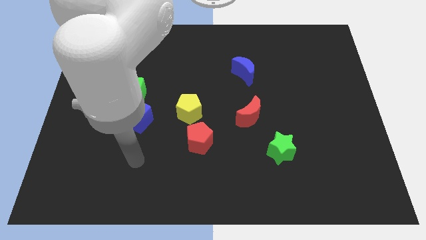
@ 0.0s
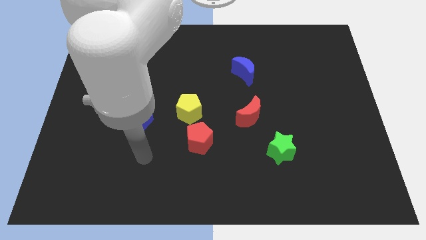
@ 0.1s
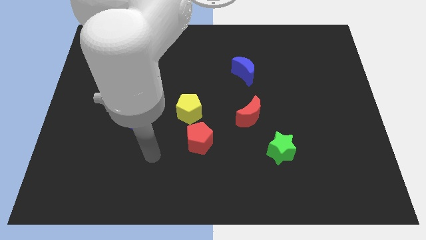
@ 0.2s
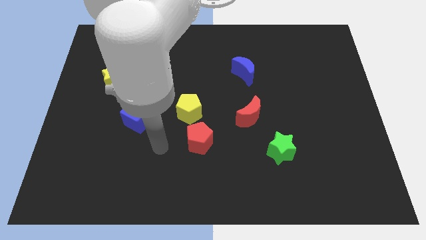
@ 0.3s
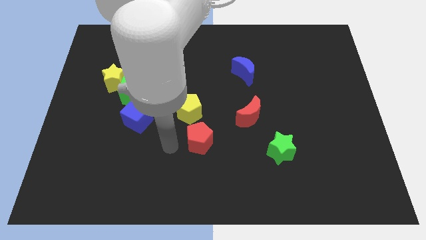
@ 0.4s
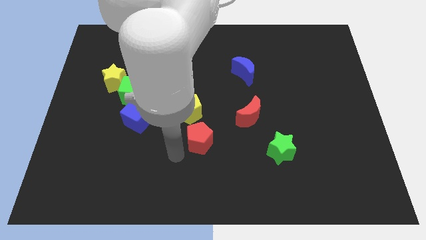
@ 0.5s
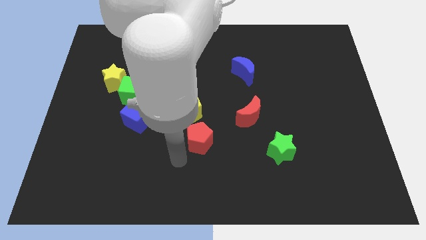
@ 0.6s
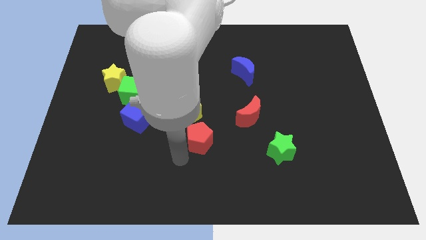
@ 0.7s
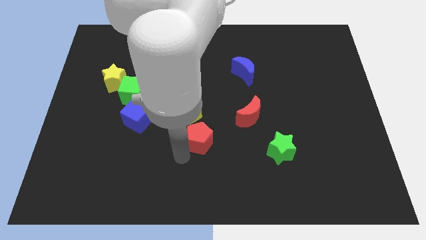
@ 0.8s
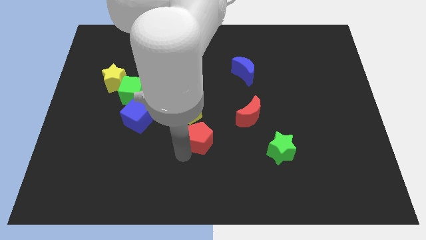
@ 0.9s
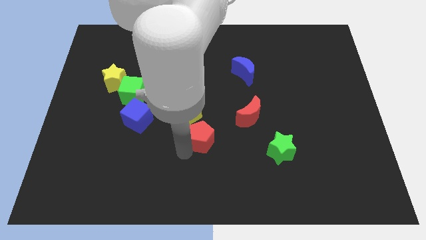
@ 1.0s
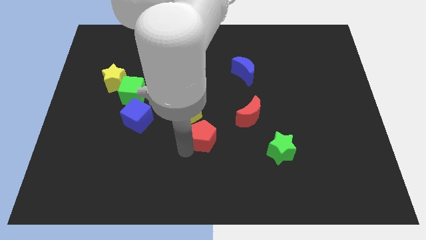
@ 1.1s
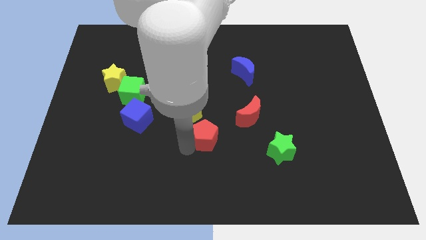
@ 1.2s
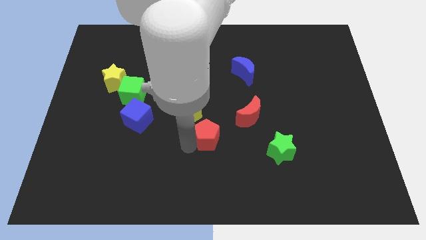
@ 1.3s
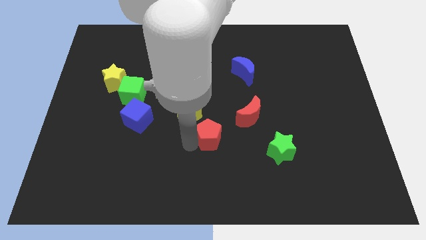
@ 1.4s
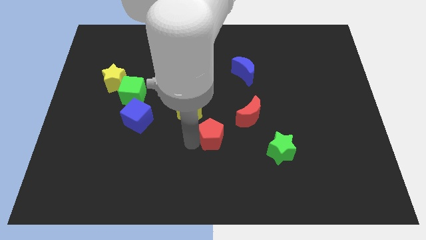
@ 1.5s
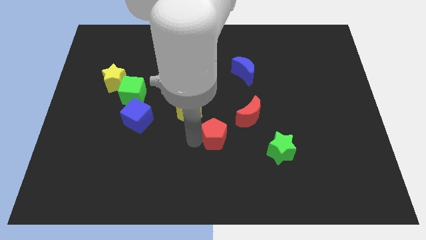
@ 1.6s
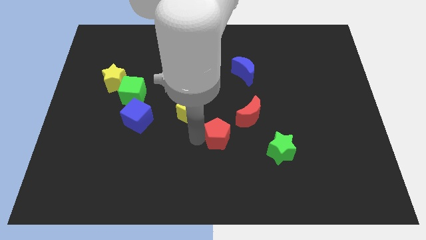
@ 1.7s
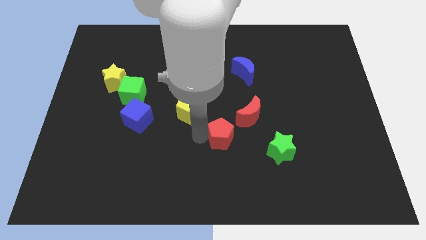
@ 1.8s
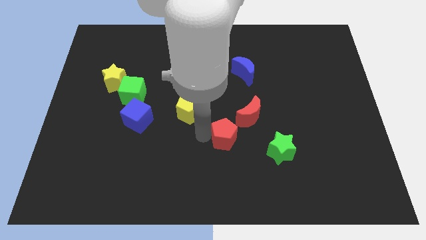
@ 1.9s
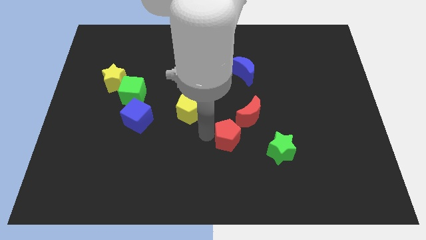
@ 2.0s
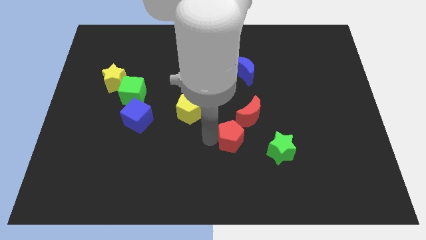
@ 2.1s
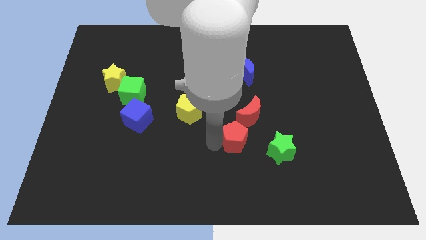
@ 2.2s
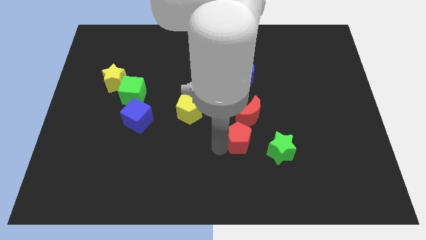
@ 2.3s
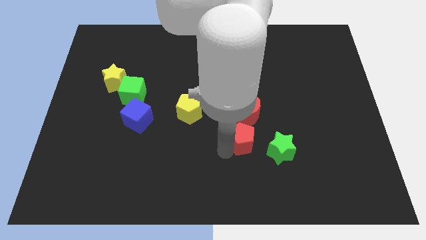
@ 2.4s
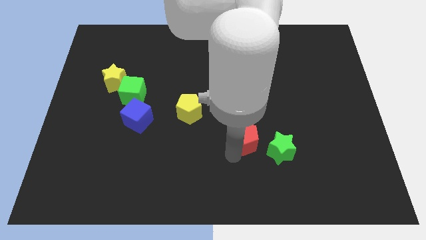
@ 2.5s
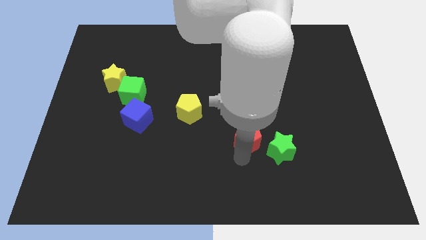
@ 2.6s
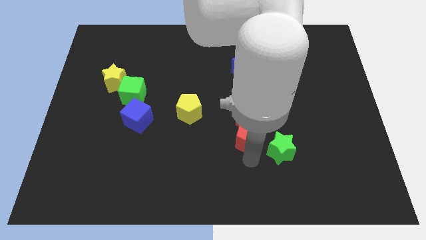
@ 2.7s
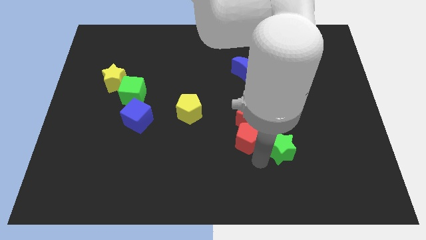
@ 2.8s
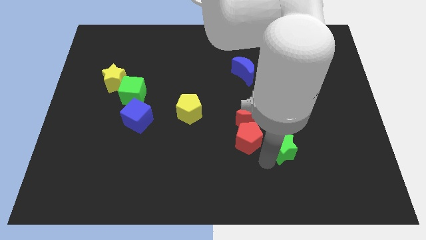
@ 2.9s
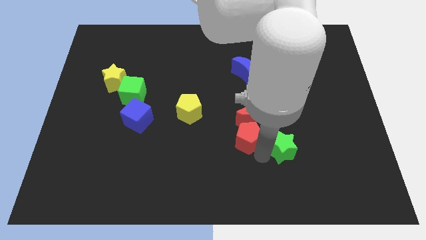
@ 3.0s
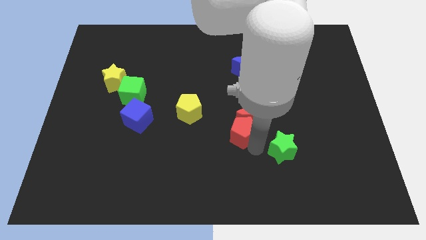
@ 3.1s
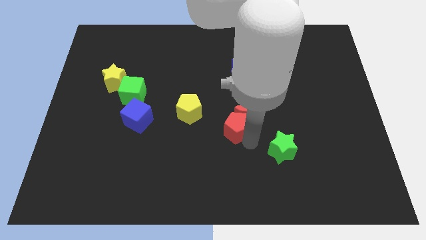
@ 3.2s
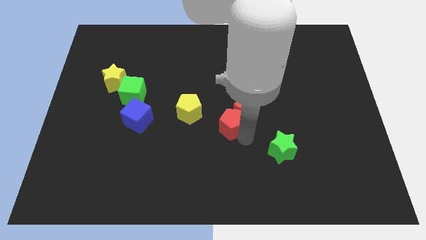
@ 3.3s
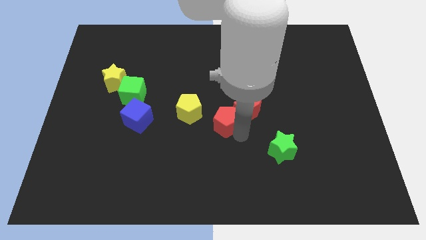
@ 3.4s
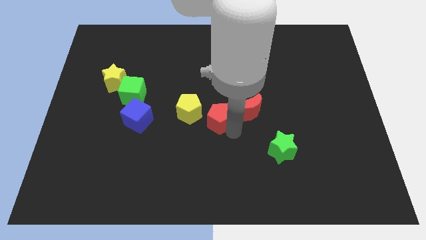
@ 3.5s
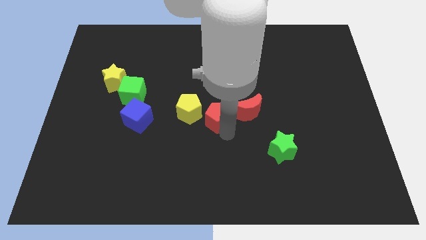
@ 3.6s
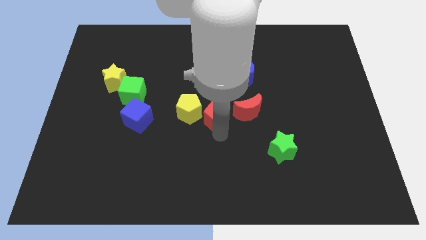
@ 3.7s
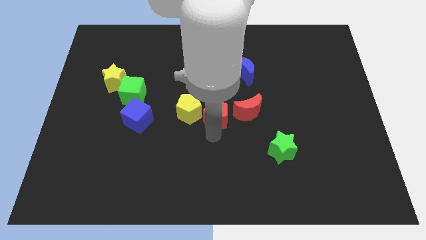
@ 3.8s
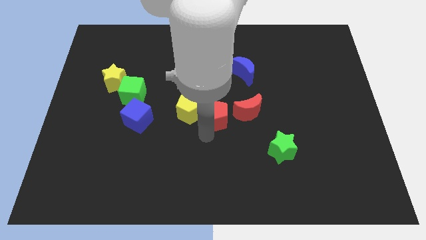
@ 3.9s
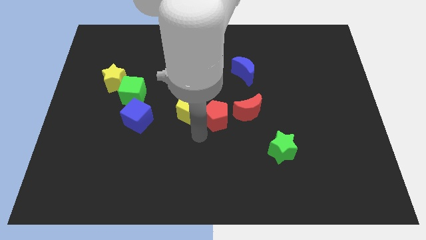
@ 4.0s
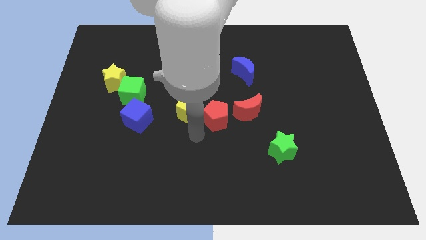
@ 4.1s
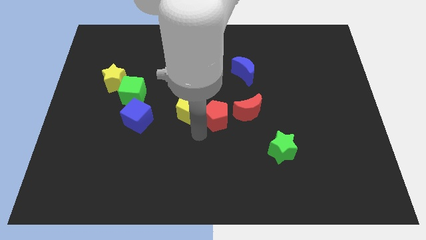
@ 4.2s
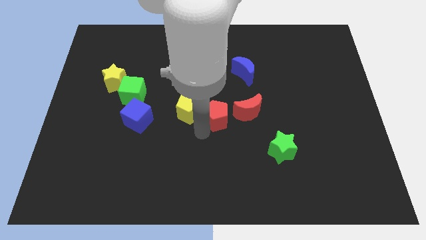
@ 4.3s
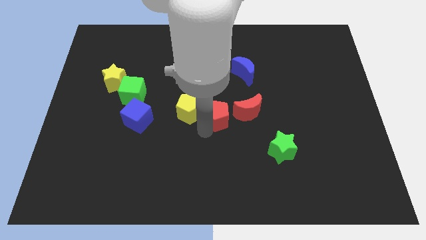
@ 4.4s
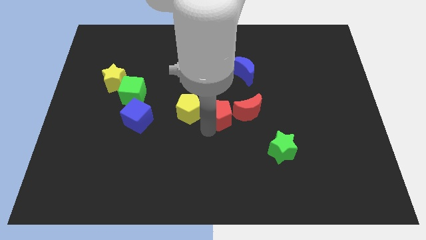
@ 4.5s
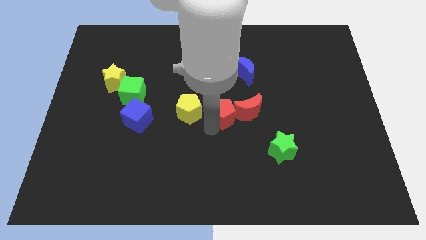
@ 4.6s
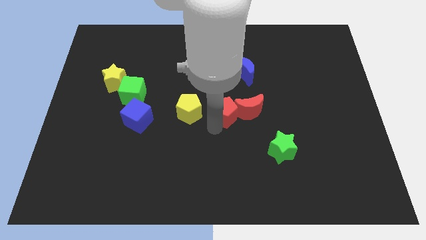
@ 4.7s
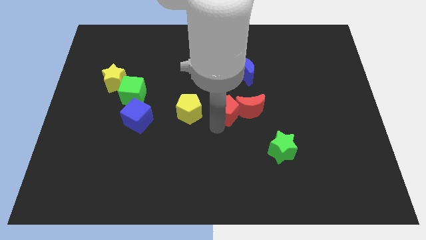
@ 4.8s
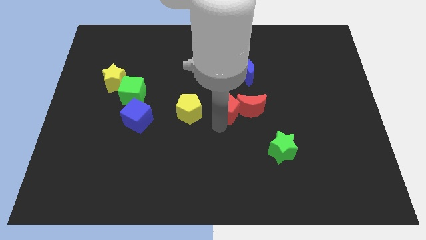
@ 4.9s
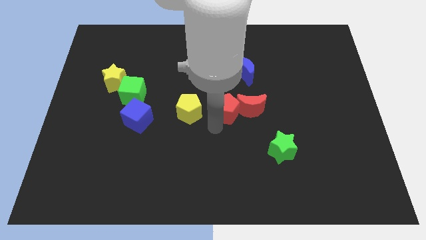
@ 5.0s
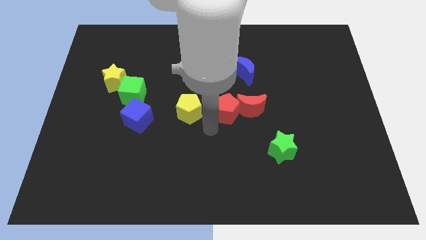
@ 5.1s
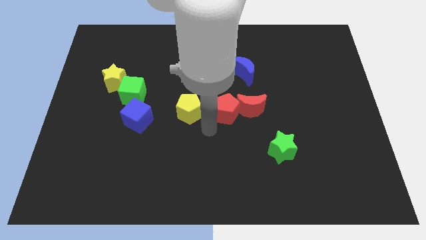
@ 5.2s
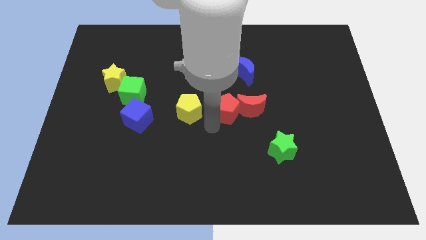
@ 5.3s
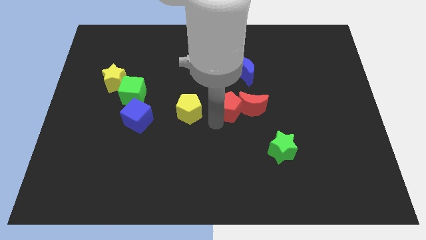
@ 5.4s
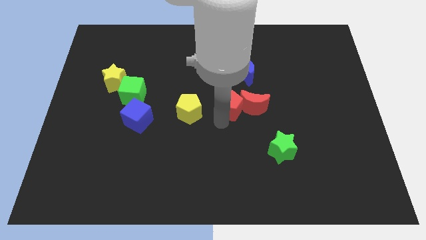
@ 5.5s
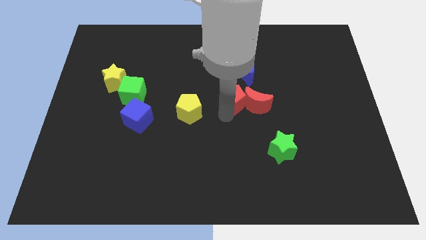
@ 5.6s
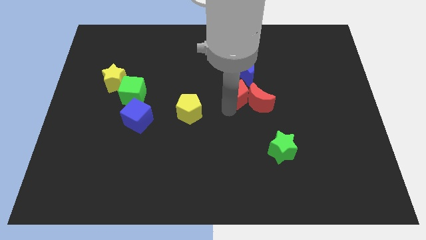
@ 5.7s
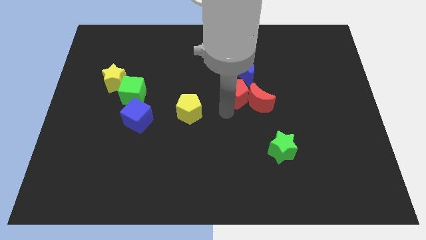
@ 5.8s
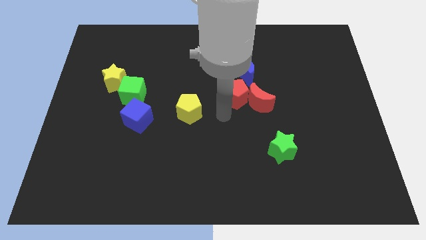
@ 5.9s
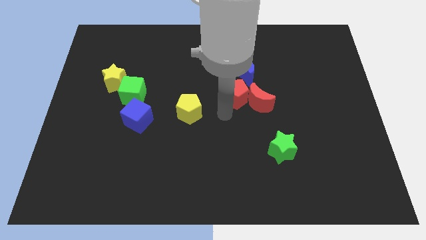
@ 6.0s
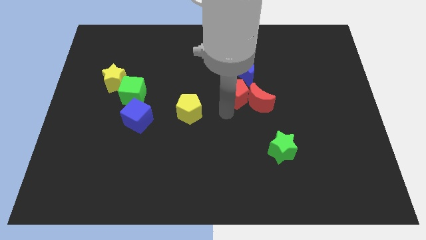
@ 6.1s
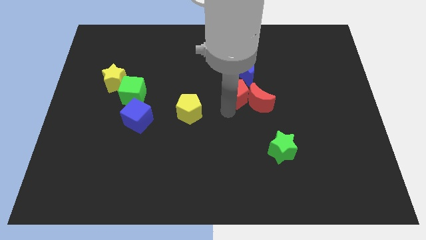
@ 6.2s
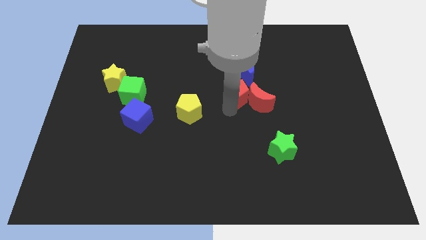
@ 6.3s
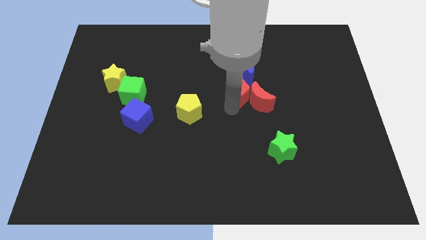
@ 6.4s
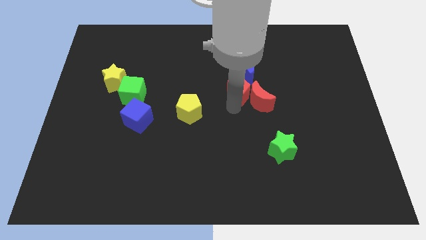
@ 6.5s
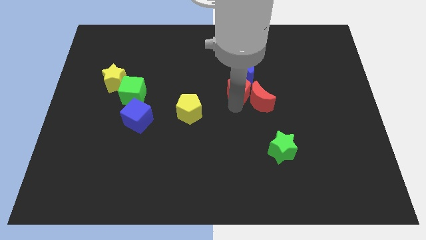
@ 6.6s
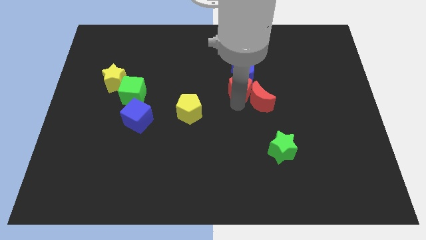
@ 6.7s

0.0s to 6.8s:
slide the red pentagon next to the blue moon
